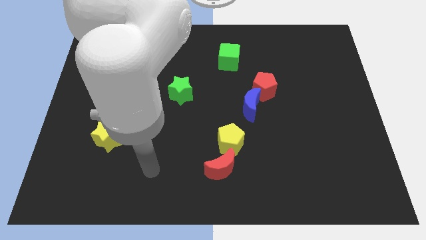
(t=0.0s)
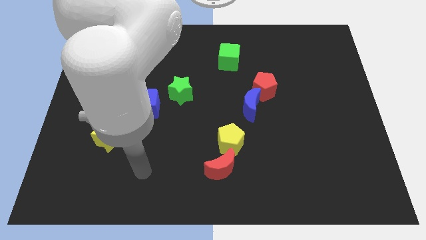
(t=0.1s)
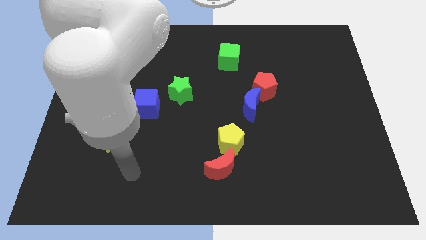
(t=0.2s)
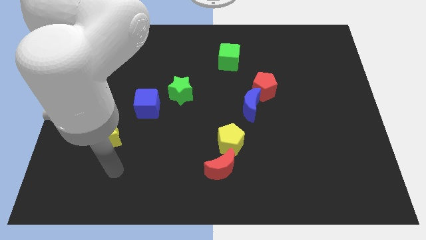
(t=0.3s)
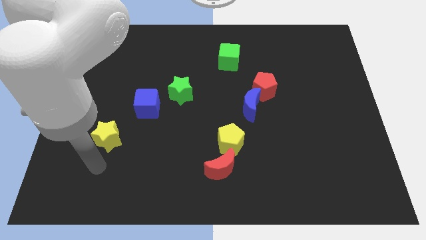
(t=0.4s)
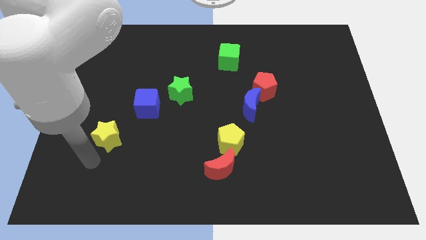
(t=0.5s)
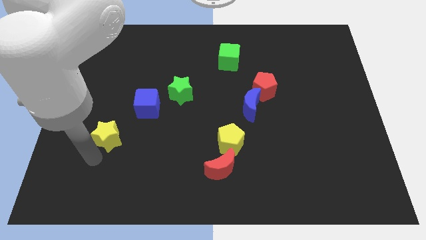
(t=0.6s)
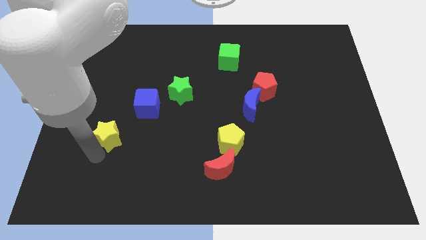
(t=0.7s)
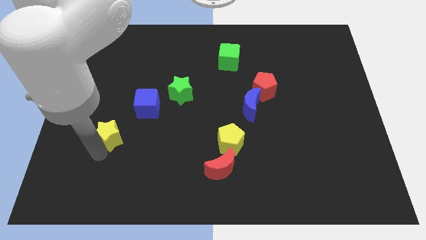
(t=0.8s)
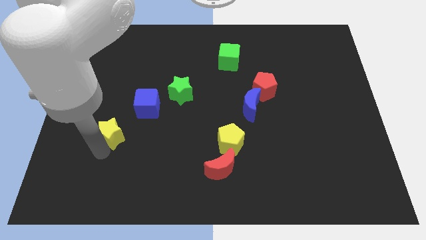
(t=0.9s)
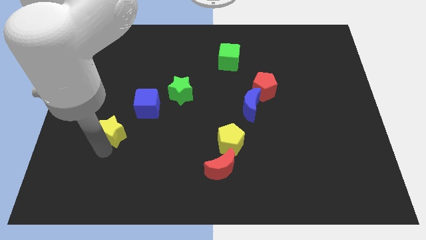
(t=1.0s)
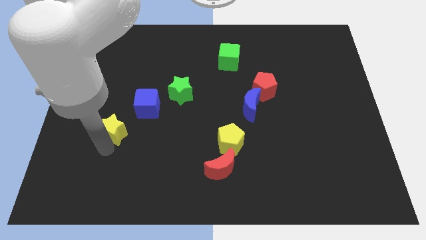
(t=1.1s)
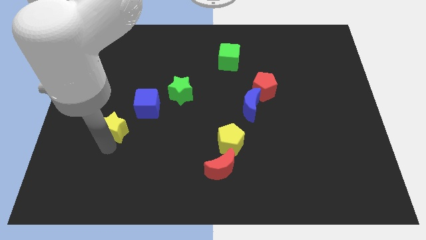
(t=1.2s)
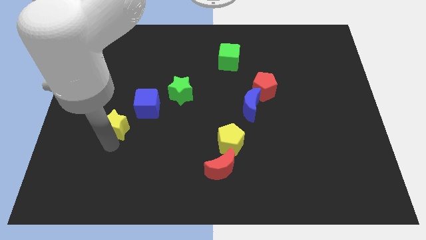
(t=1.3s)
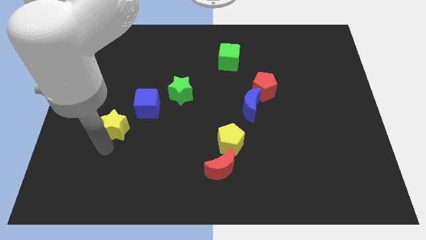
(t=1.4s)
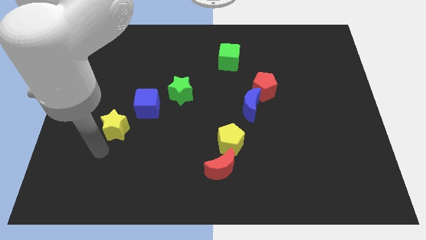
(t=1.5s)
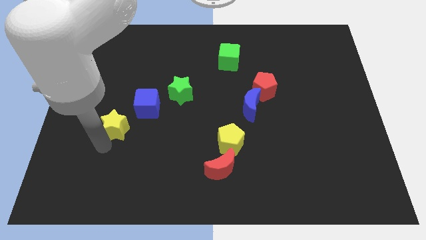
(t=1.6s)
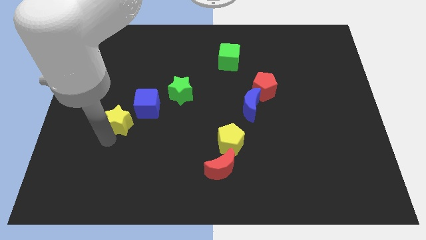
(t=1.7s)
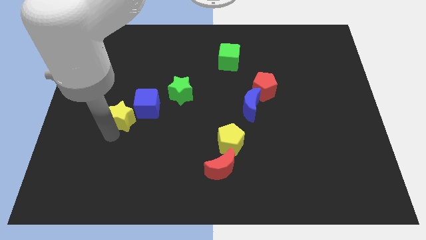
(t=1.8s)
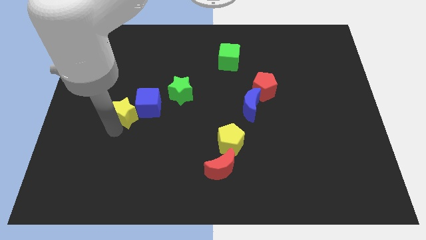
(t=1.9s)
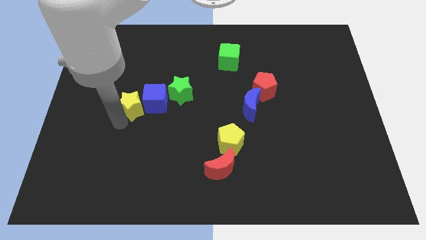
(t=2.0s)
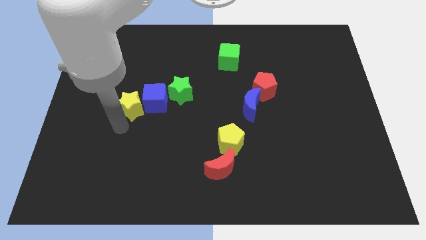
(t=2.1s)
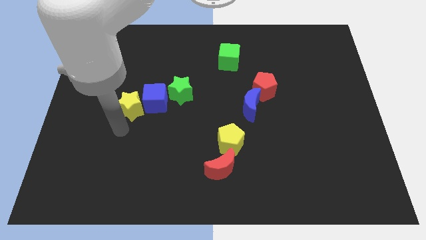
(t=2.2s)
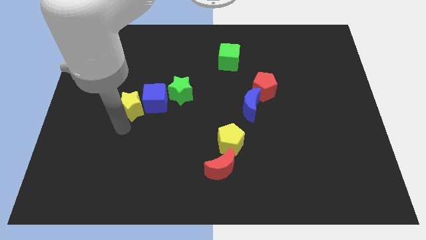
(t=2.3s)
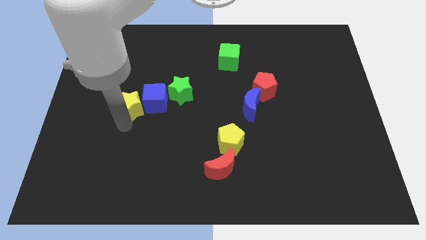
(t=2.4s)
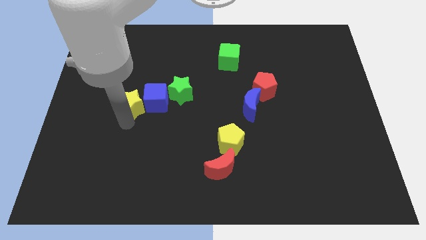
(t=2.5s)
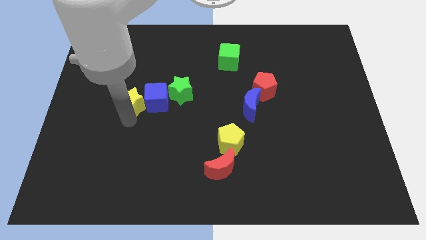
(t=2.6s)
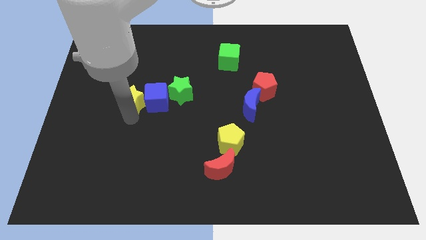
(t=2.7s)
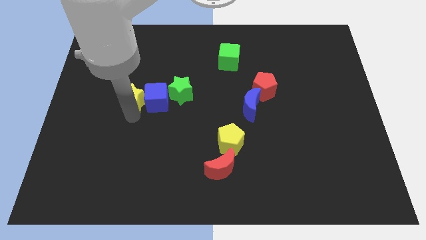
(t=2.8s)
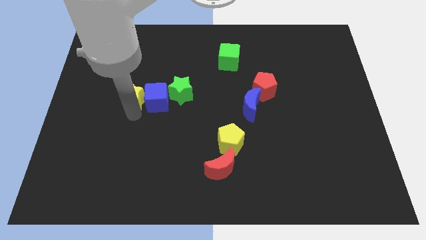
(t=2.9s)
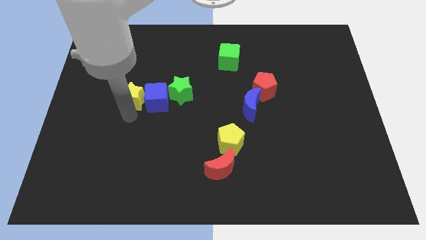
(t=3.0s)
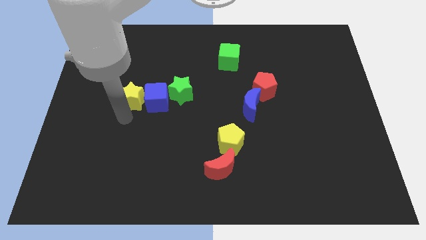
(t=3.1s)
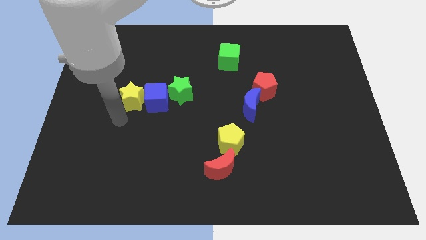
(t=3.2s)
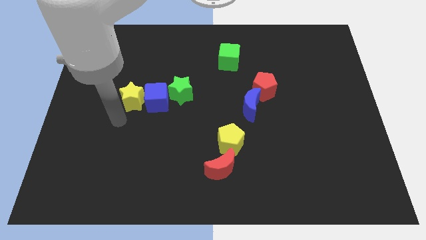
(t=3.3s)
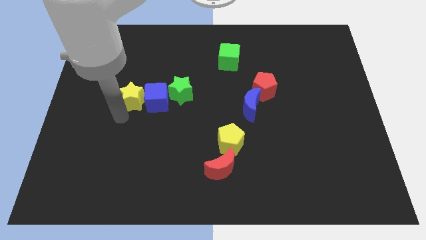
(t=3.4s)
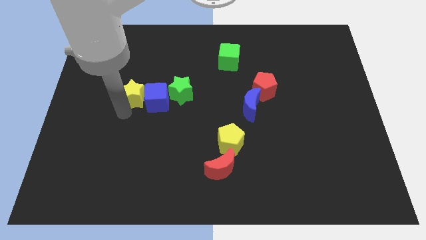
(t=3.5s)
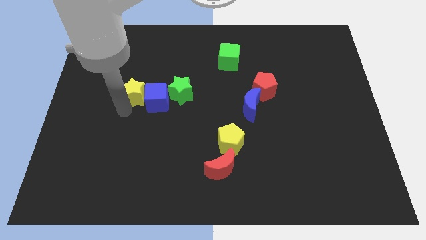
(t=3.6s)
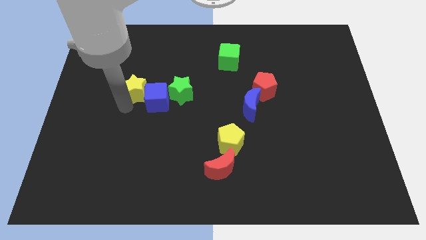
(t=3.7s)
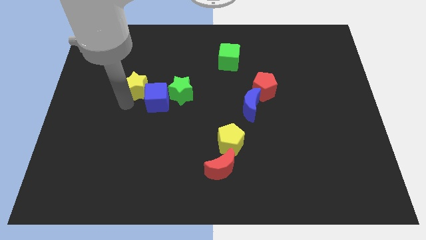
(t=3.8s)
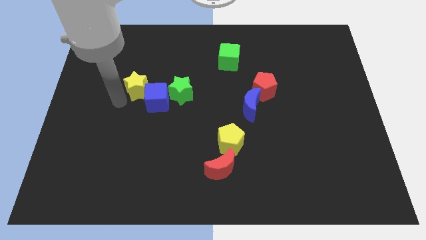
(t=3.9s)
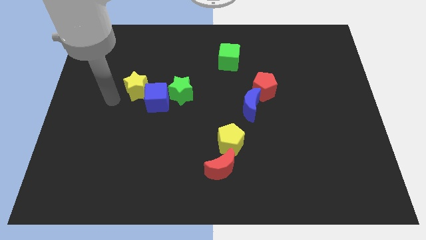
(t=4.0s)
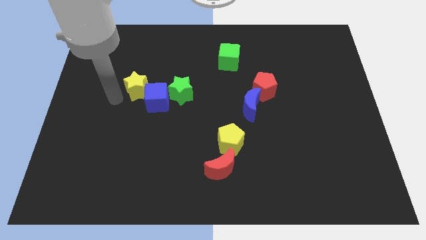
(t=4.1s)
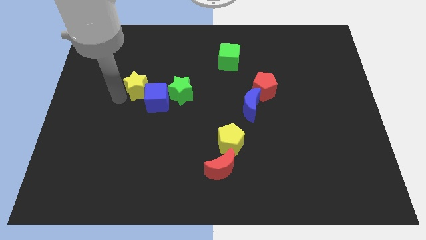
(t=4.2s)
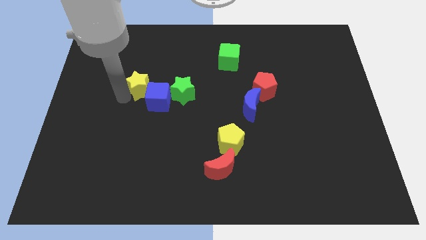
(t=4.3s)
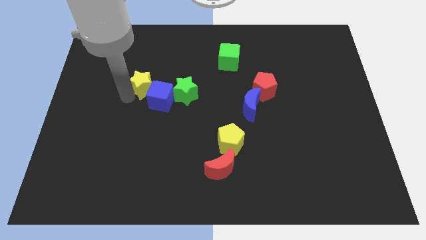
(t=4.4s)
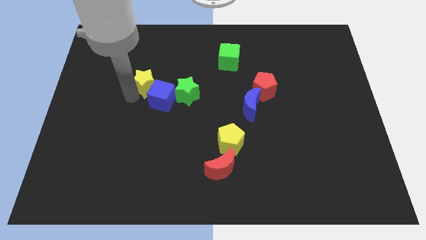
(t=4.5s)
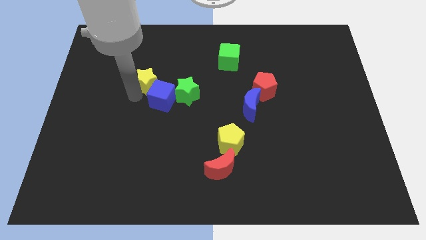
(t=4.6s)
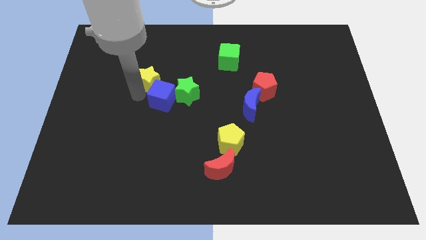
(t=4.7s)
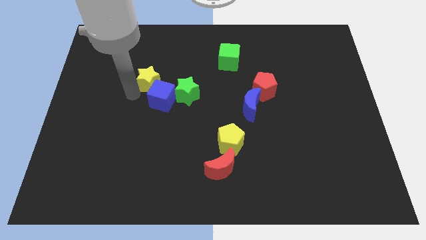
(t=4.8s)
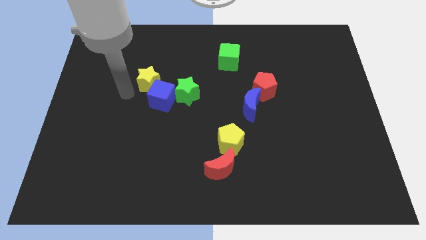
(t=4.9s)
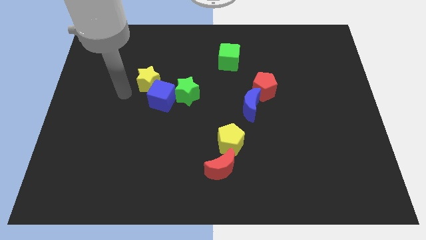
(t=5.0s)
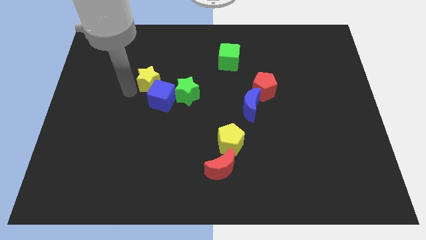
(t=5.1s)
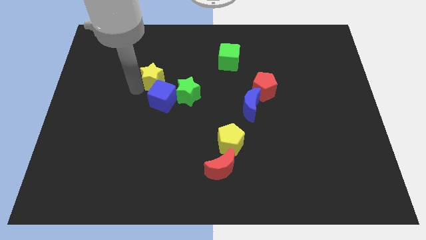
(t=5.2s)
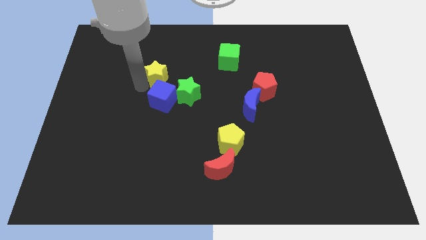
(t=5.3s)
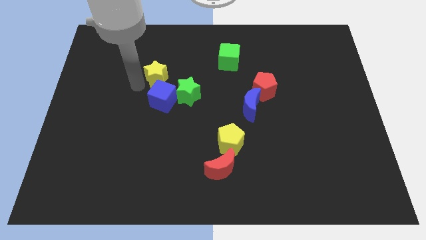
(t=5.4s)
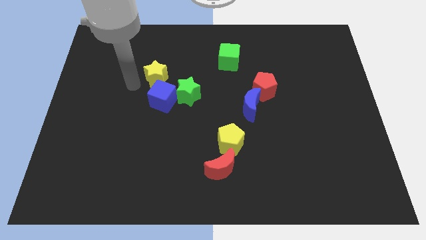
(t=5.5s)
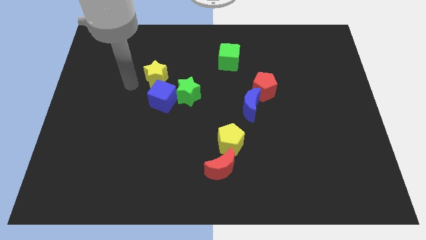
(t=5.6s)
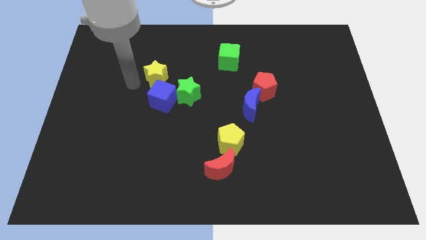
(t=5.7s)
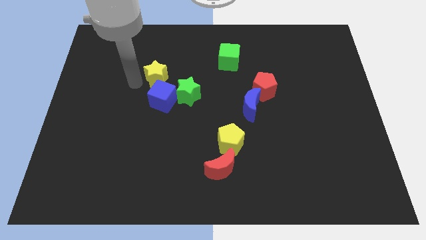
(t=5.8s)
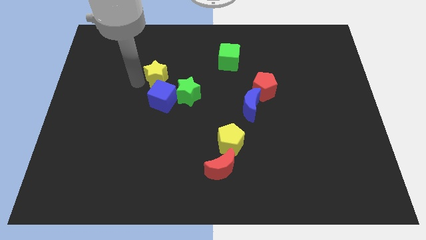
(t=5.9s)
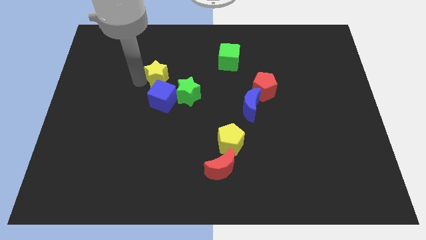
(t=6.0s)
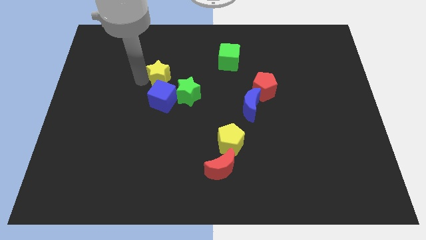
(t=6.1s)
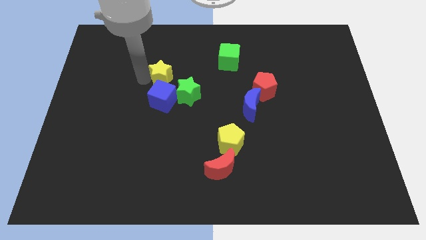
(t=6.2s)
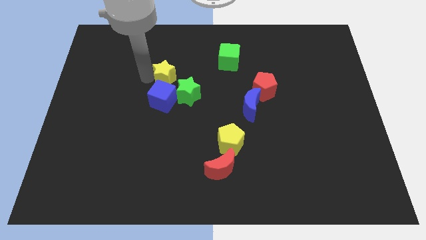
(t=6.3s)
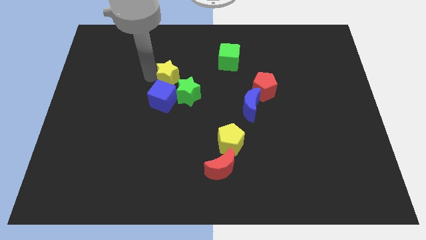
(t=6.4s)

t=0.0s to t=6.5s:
push the yellow star upwards and to the right

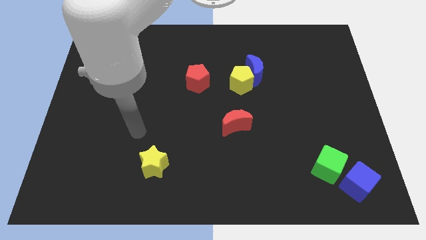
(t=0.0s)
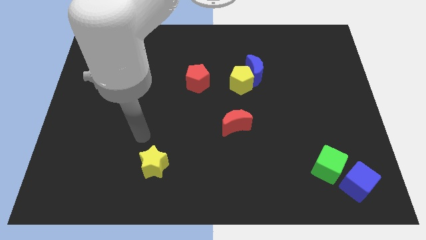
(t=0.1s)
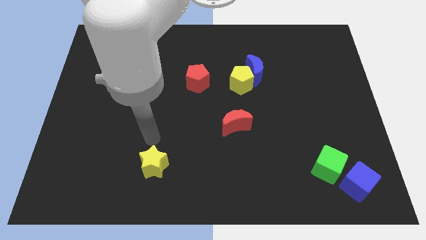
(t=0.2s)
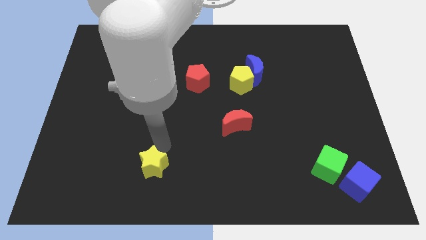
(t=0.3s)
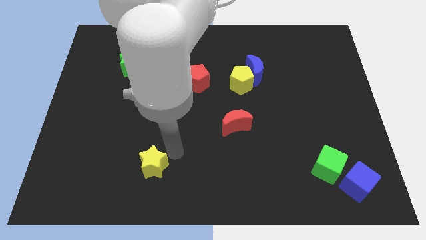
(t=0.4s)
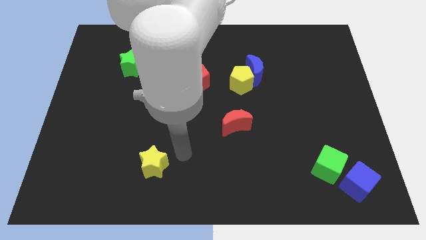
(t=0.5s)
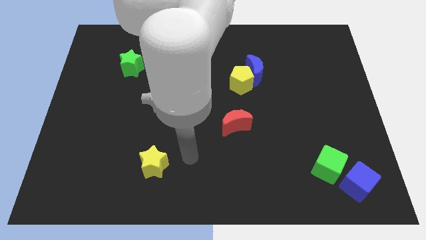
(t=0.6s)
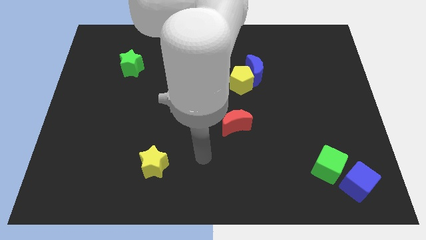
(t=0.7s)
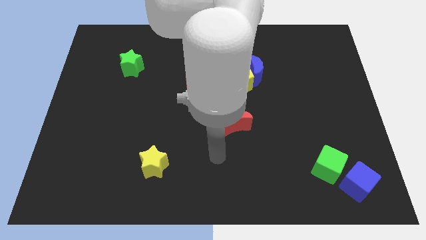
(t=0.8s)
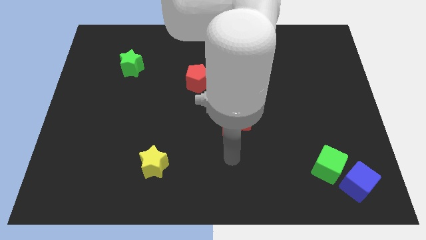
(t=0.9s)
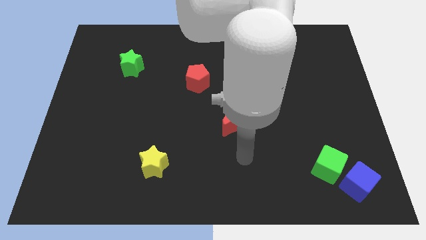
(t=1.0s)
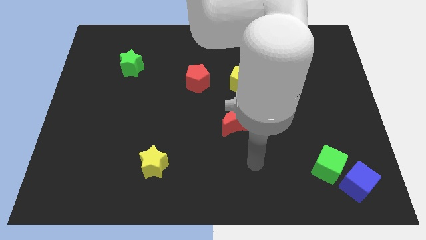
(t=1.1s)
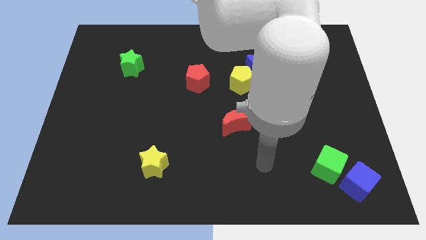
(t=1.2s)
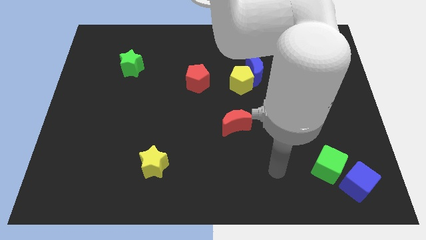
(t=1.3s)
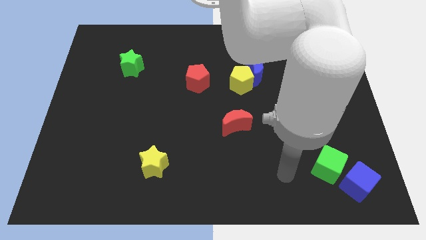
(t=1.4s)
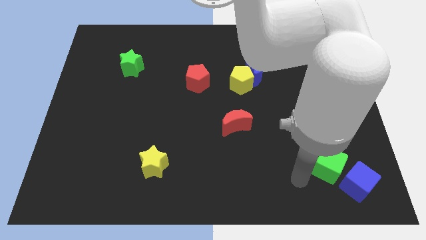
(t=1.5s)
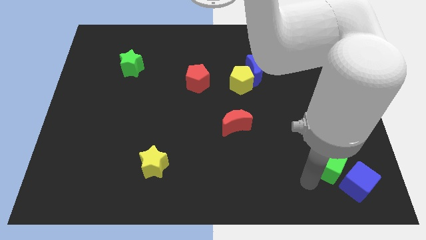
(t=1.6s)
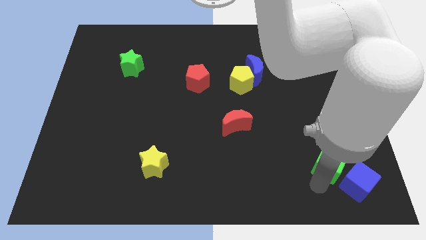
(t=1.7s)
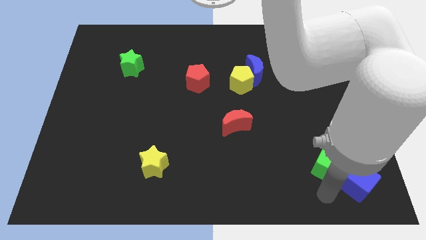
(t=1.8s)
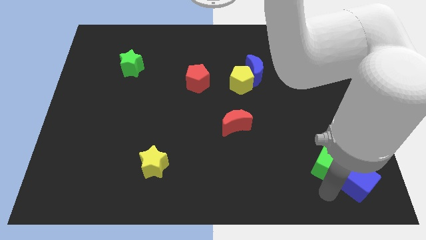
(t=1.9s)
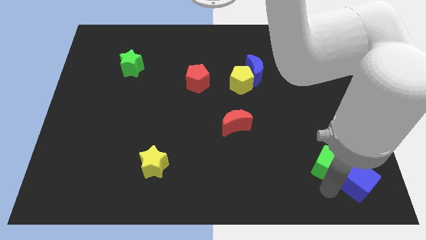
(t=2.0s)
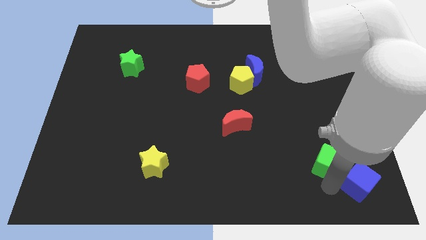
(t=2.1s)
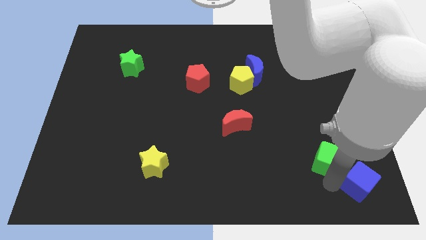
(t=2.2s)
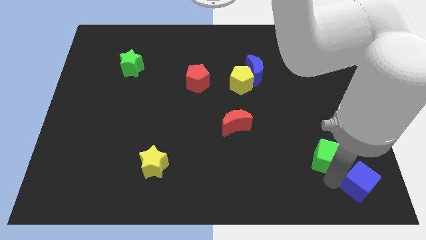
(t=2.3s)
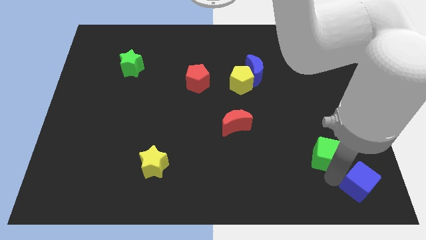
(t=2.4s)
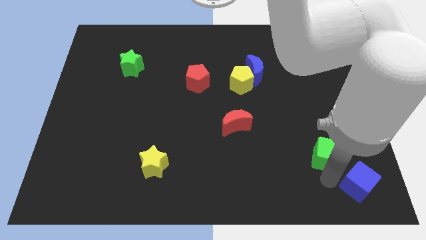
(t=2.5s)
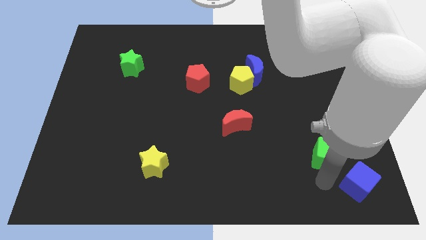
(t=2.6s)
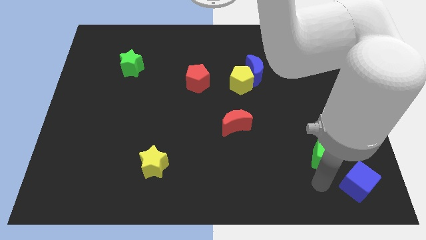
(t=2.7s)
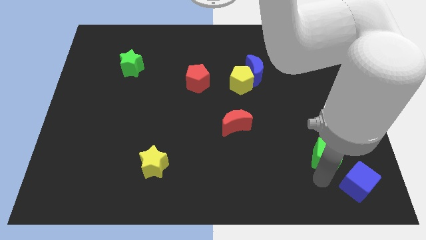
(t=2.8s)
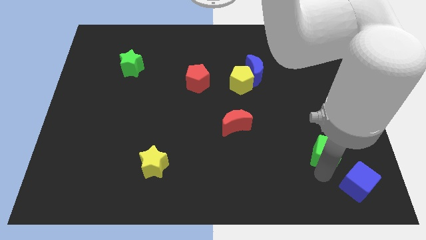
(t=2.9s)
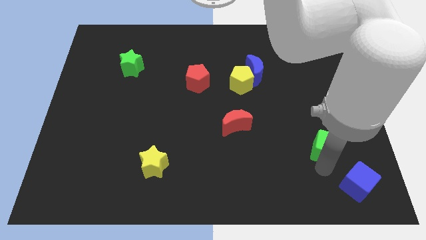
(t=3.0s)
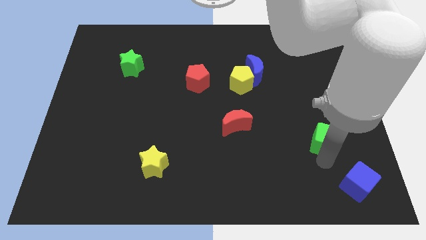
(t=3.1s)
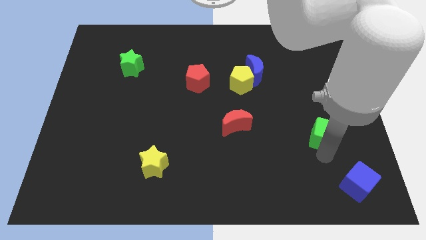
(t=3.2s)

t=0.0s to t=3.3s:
slightly move the green cube upwards
